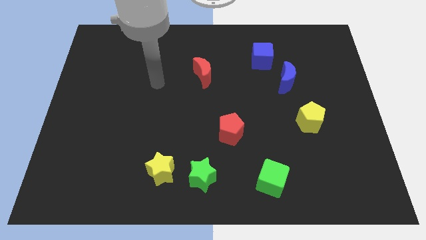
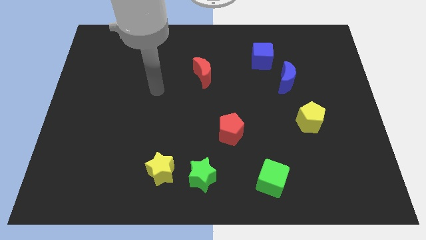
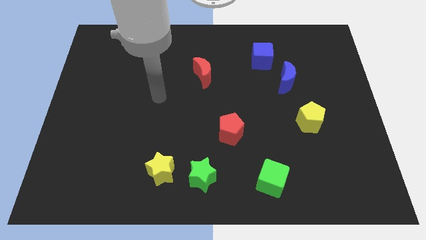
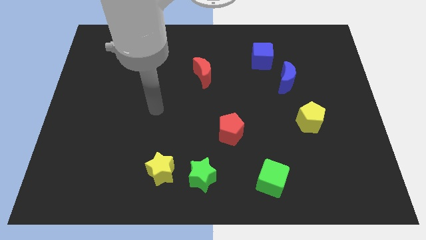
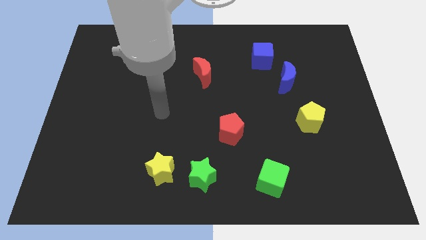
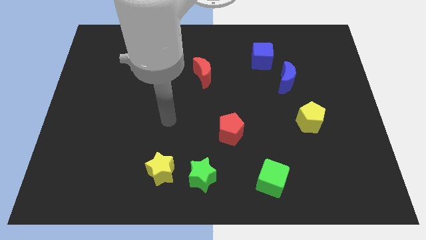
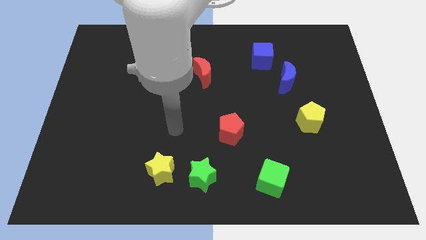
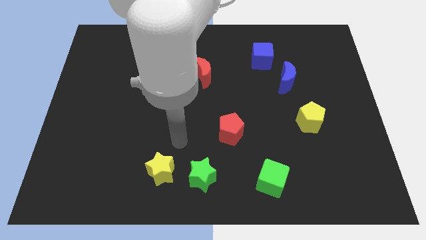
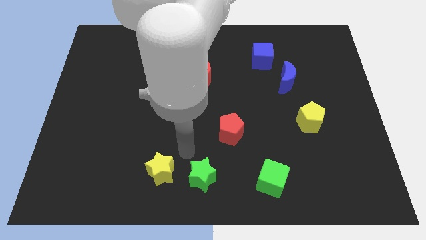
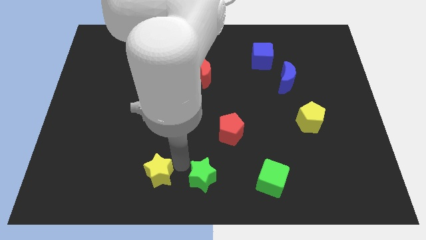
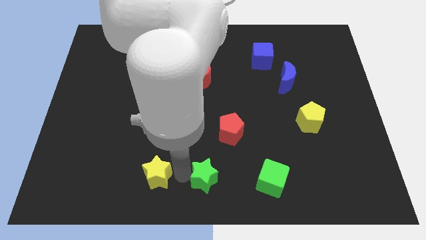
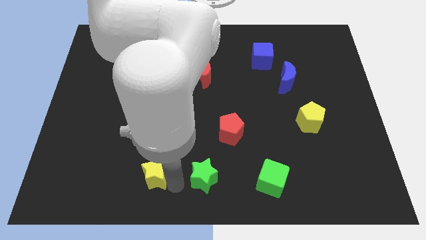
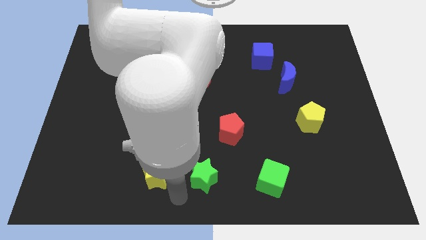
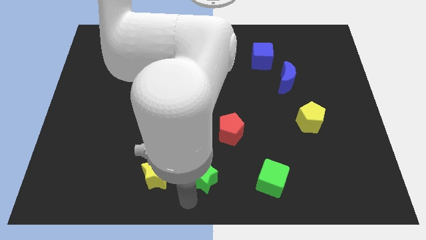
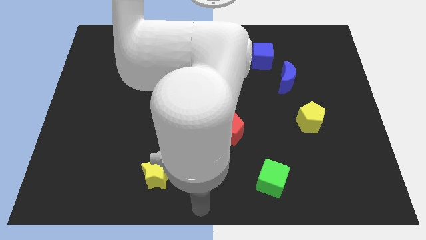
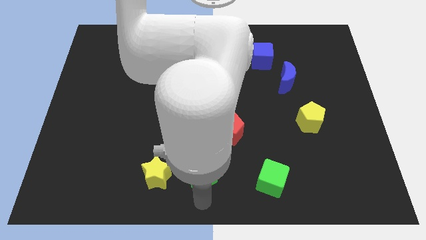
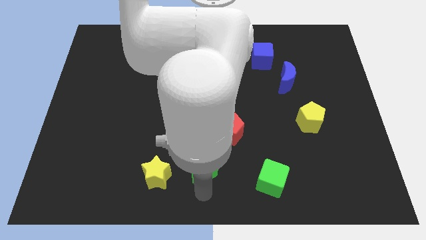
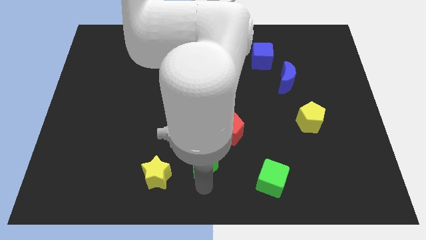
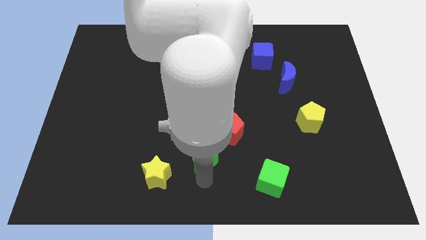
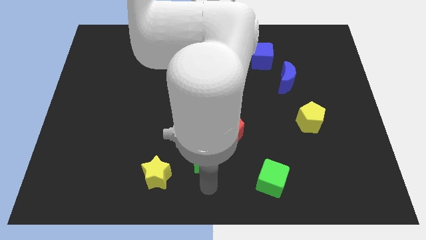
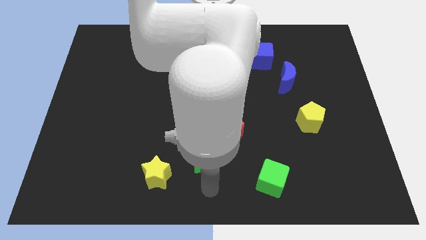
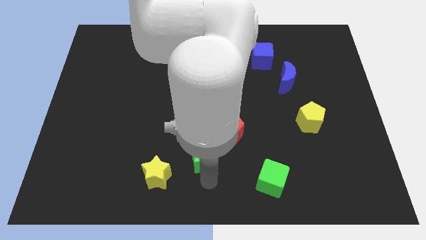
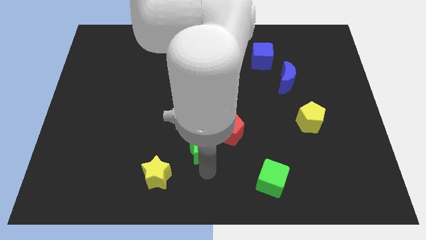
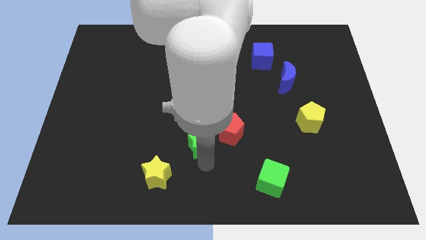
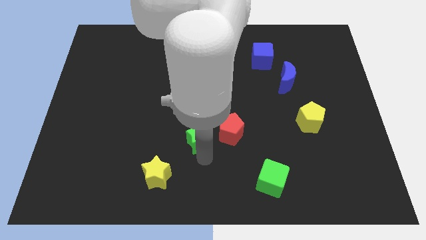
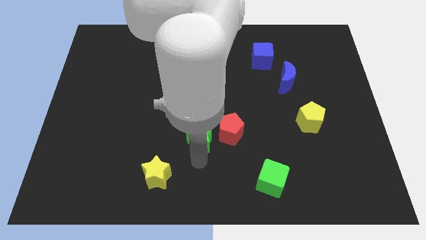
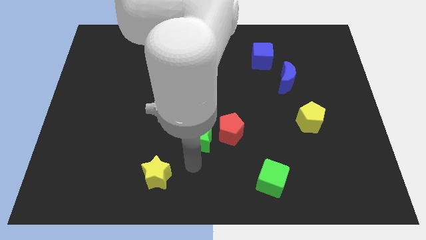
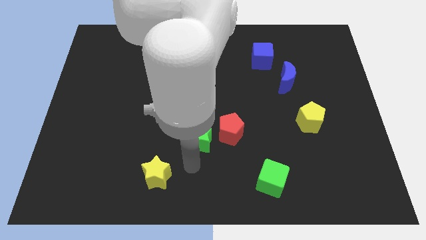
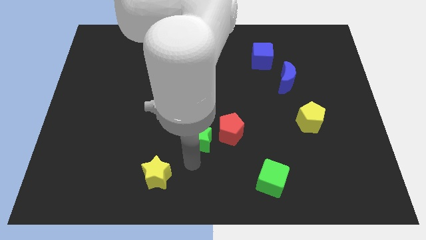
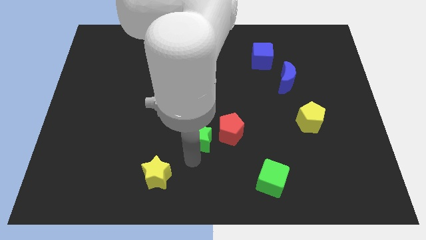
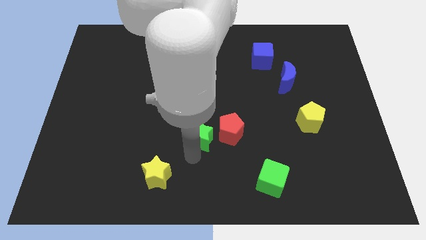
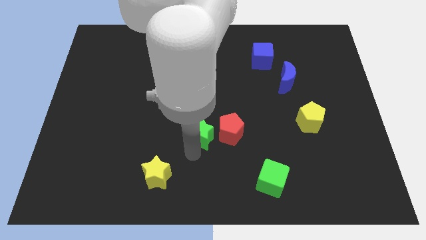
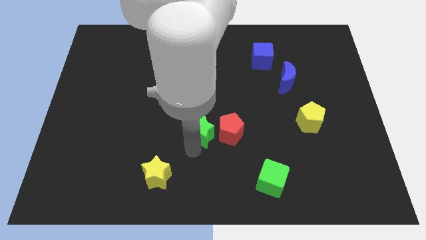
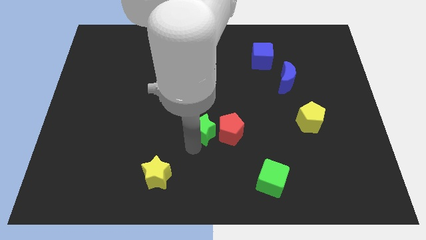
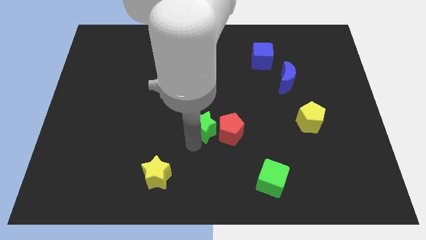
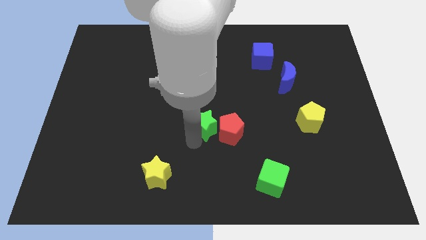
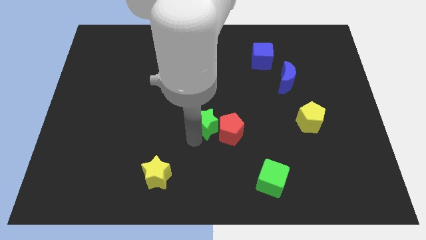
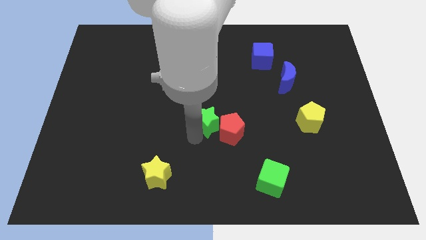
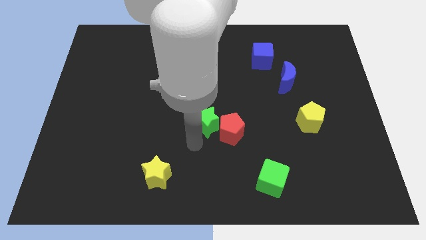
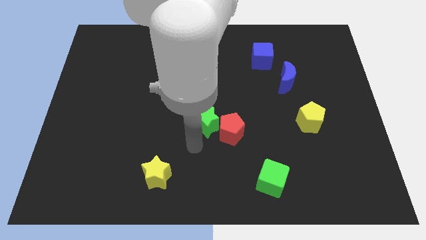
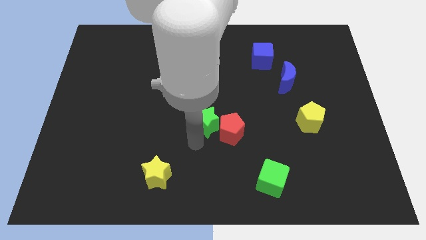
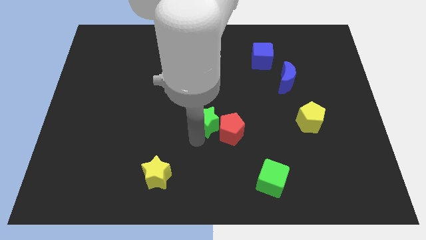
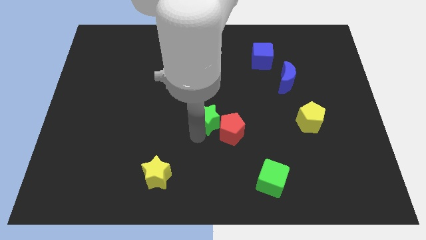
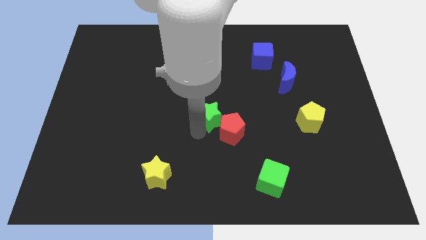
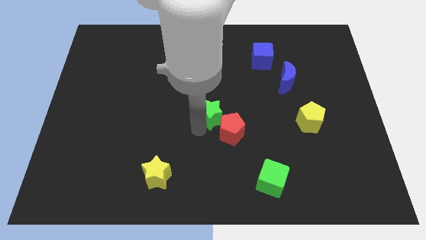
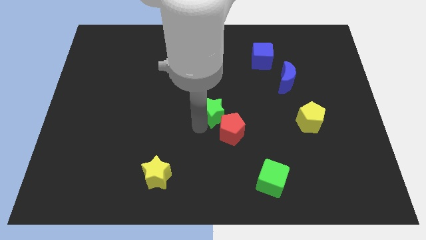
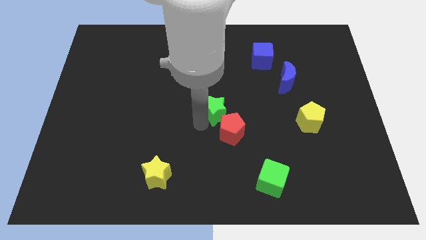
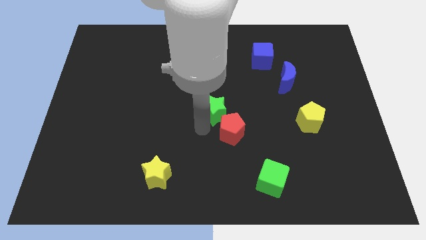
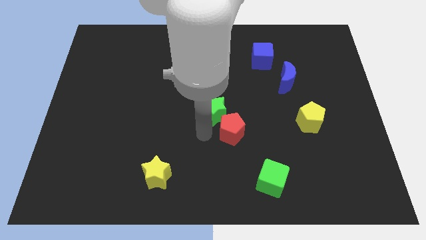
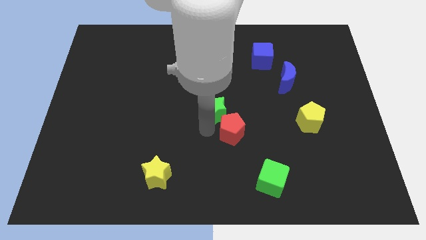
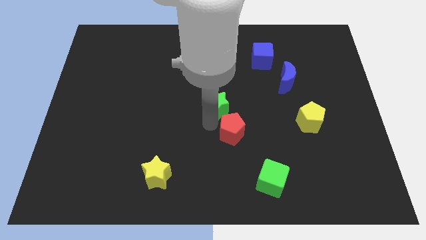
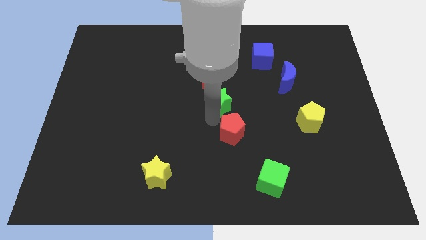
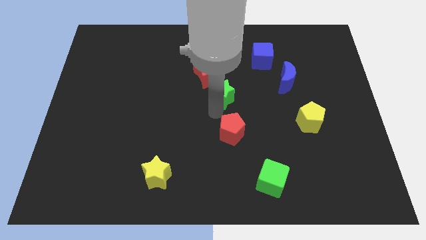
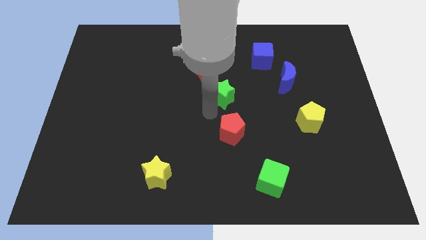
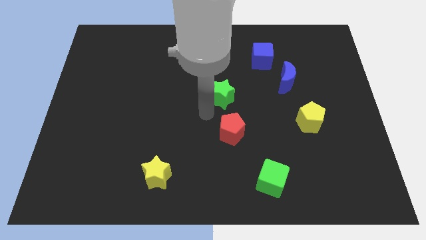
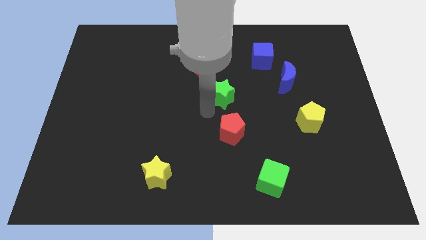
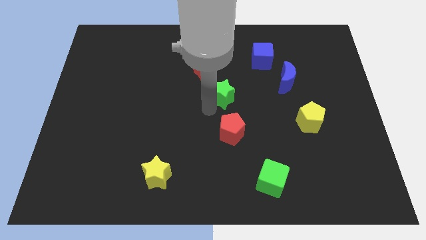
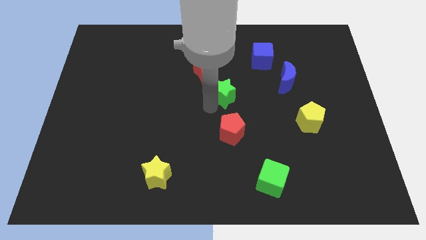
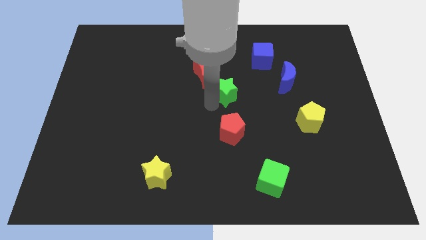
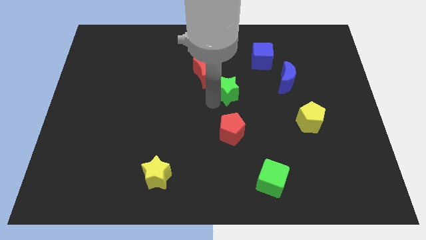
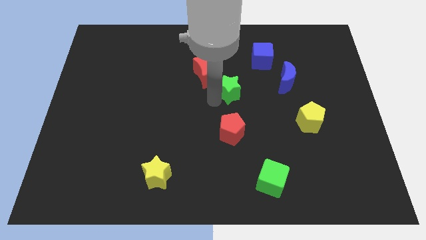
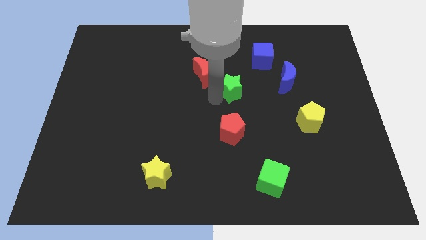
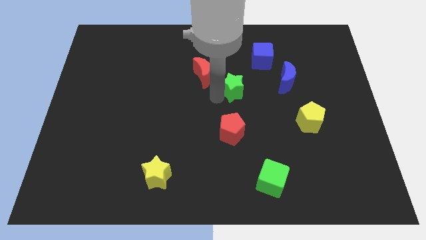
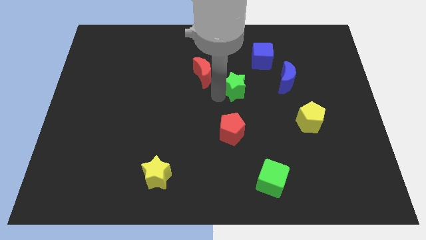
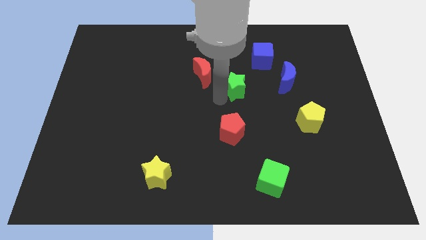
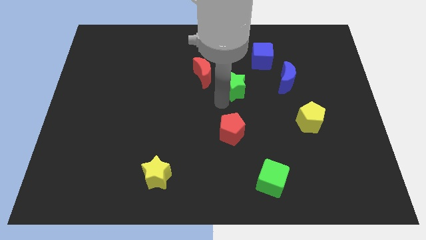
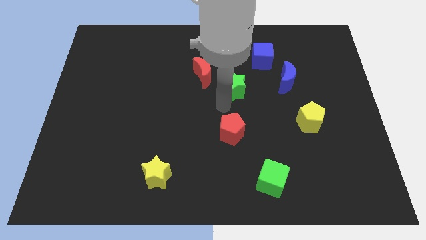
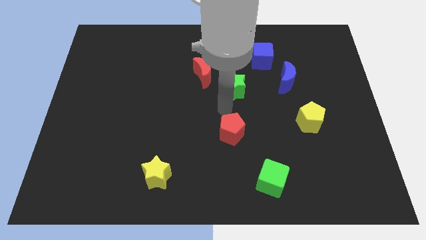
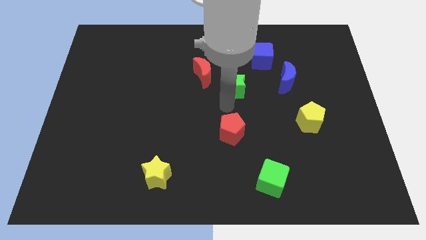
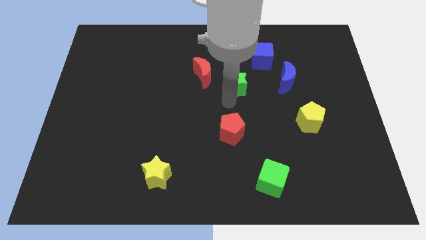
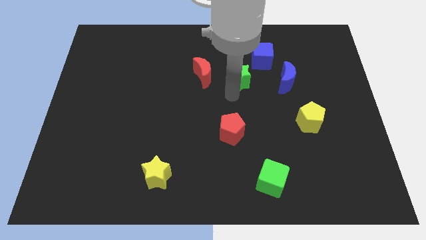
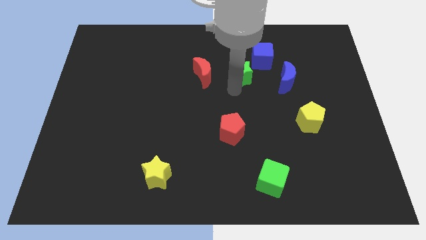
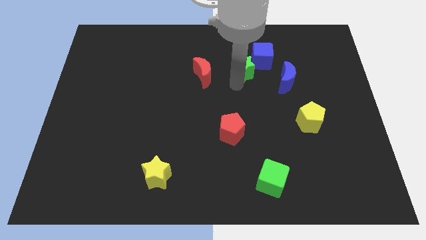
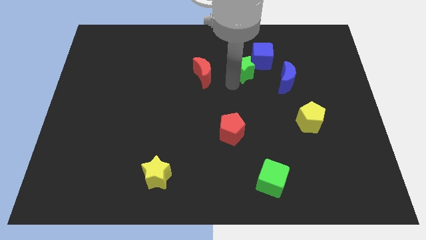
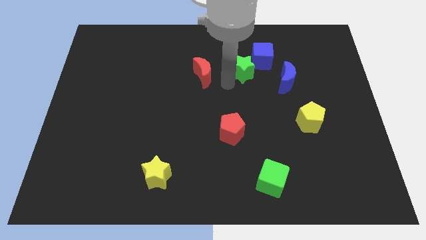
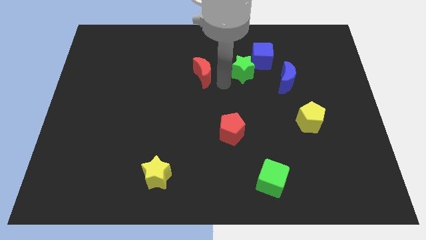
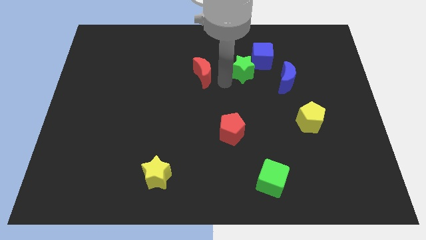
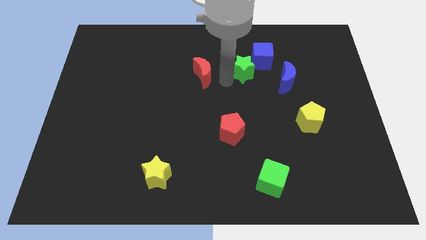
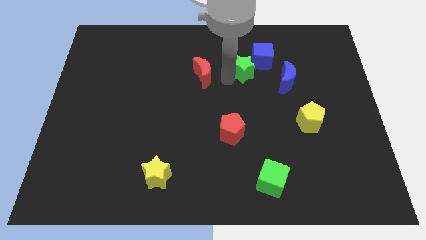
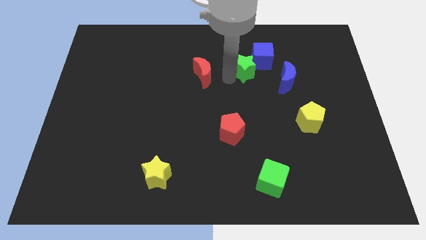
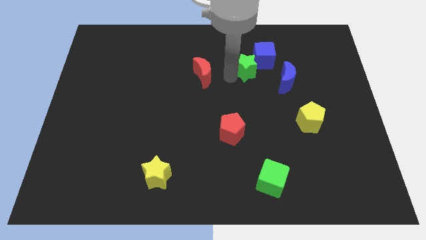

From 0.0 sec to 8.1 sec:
slide the green star to the blue cube
